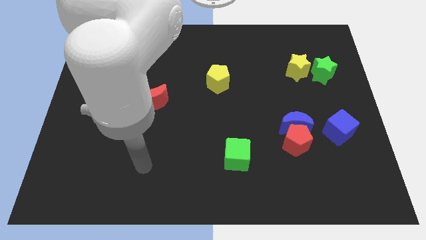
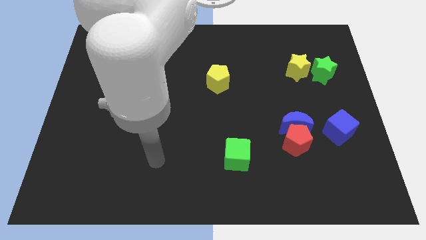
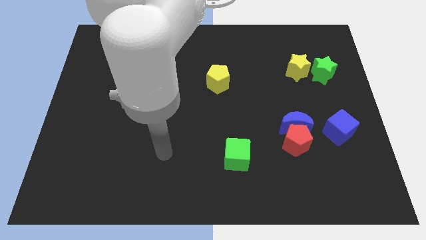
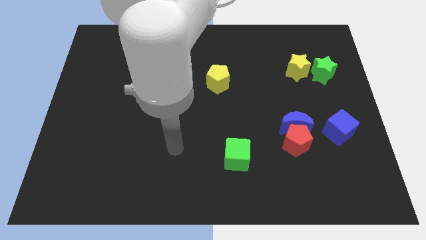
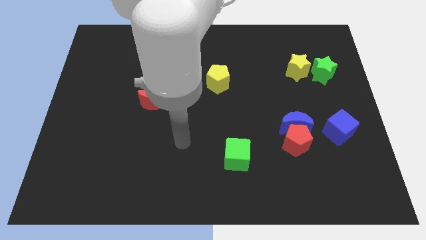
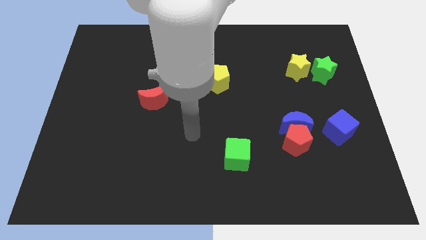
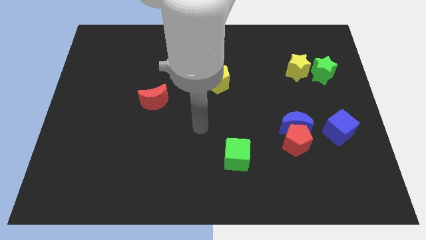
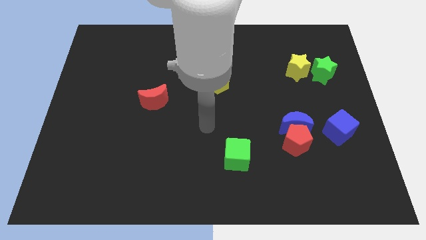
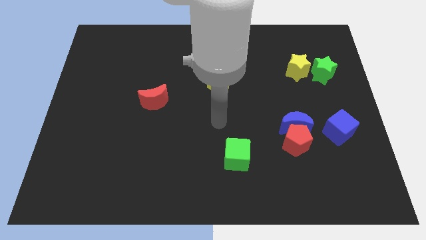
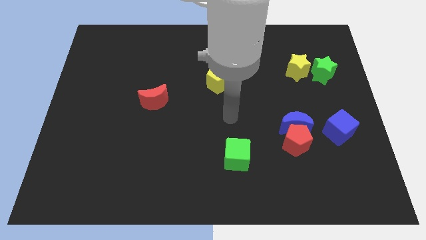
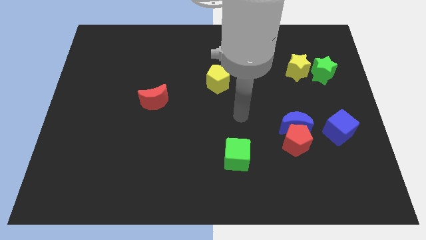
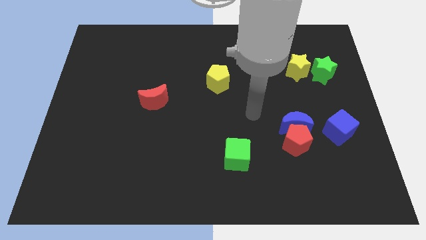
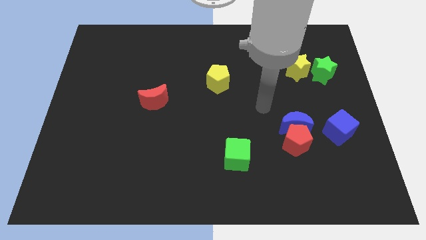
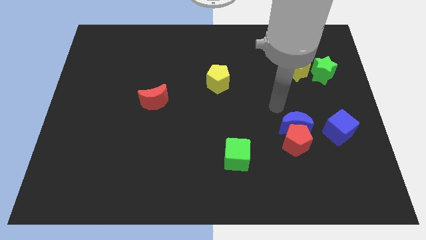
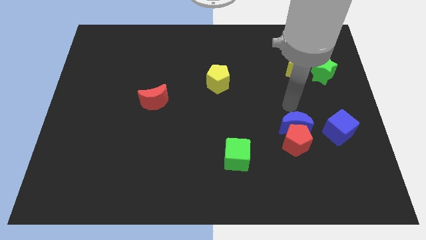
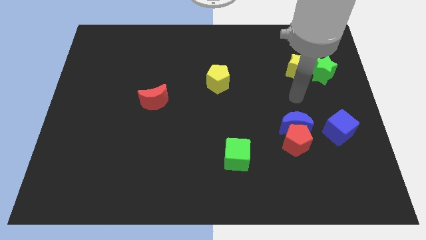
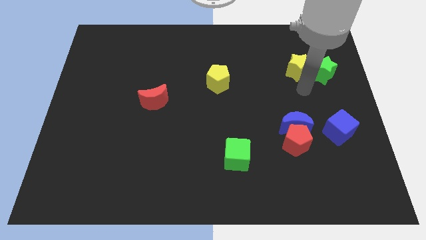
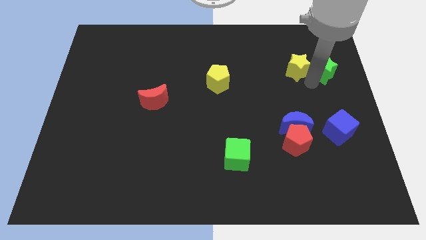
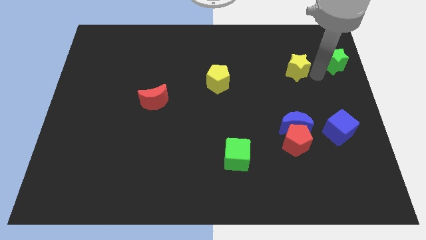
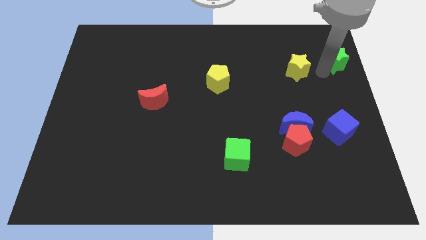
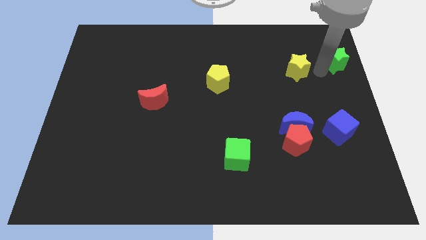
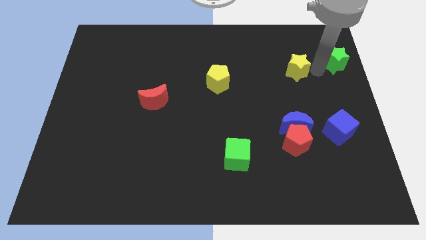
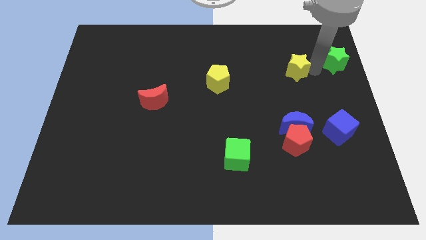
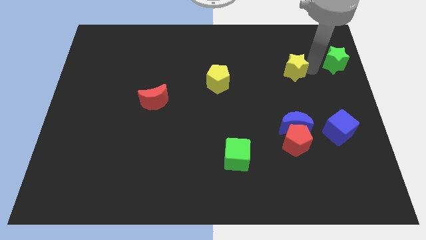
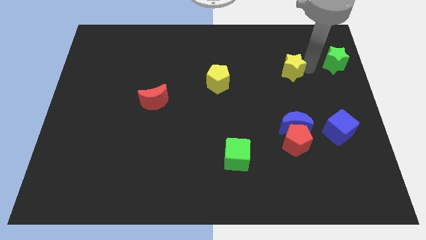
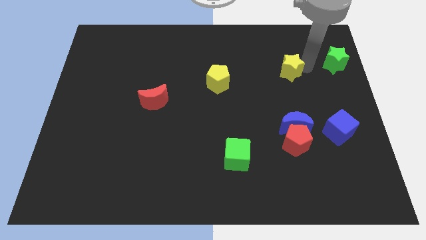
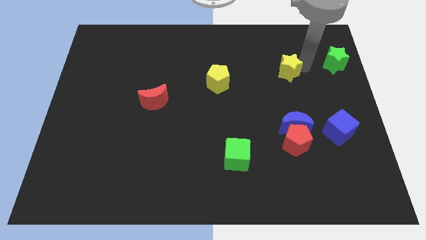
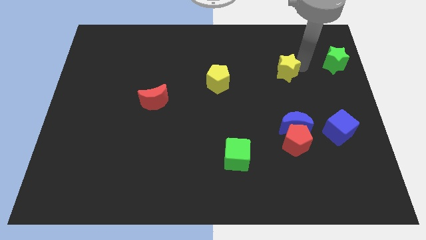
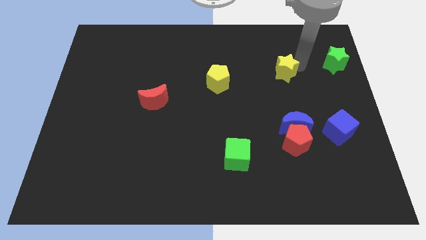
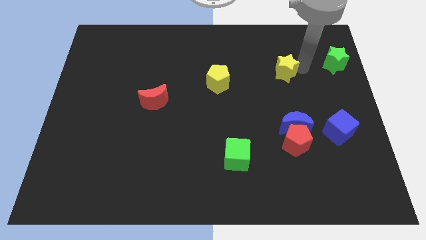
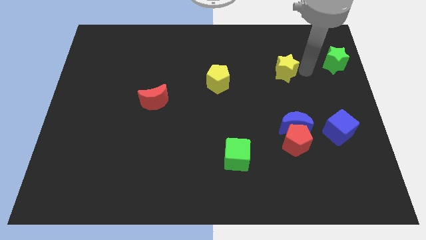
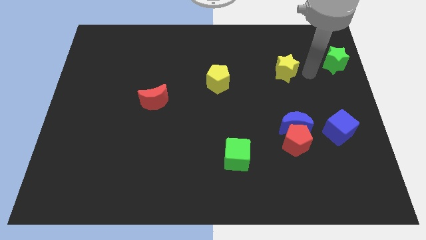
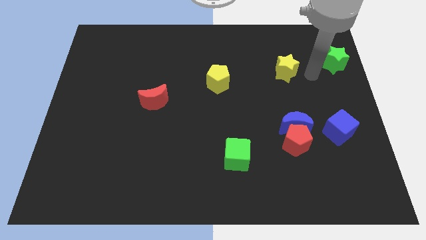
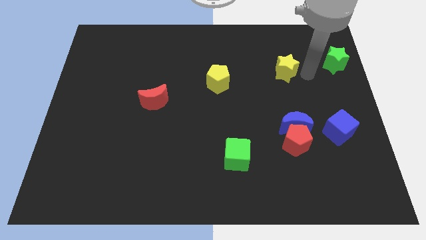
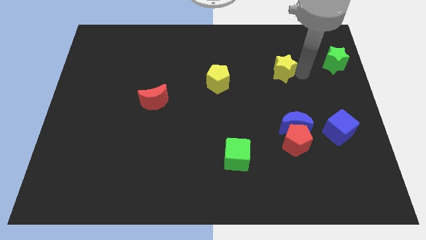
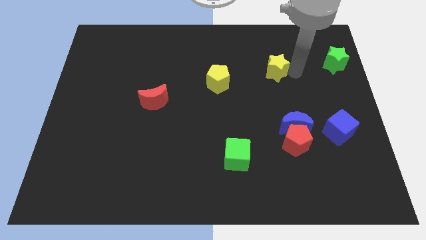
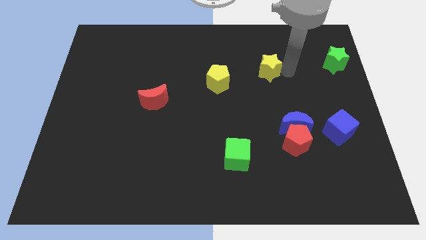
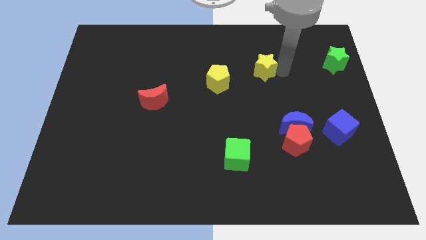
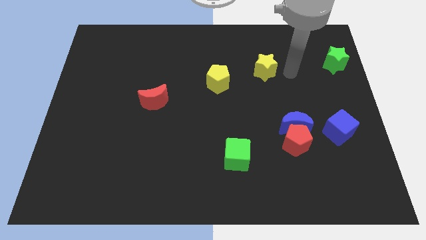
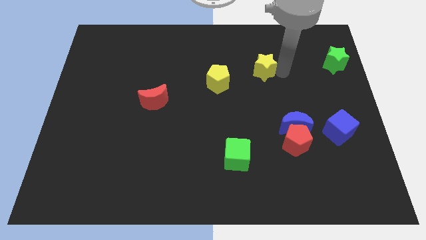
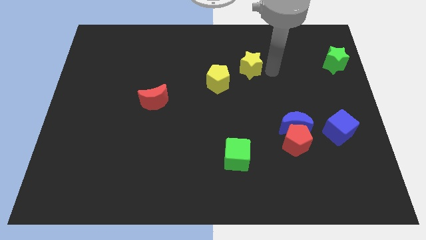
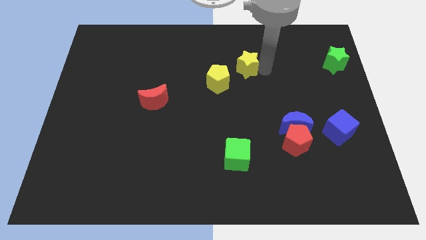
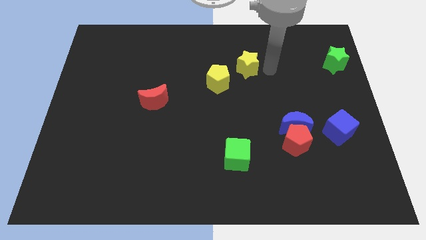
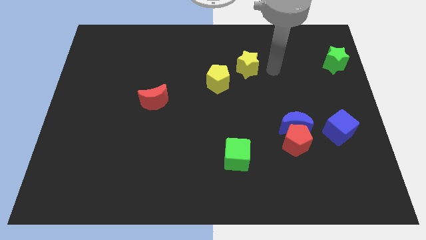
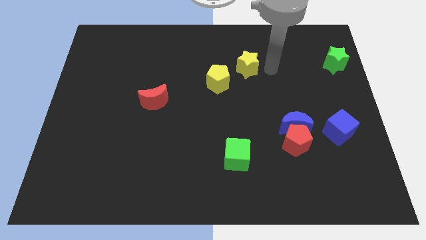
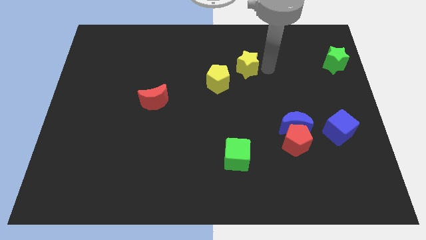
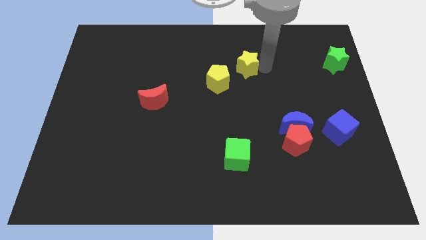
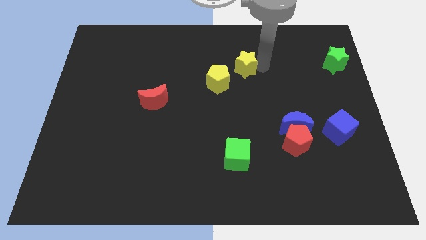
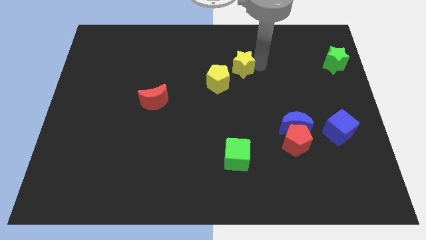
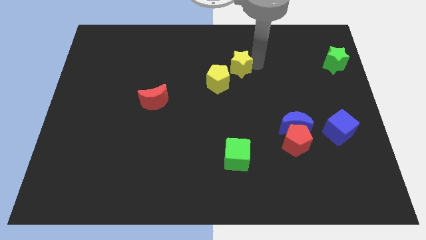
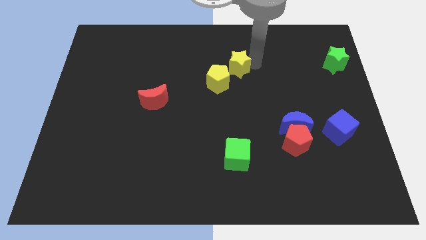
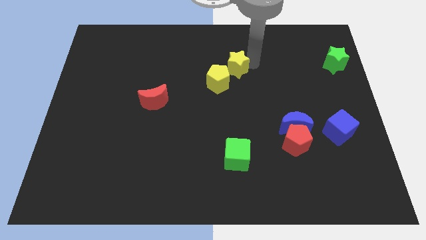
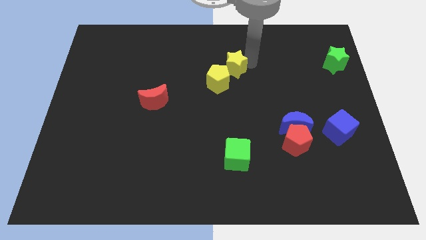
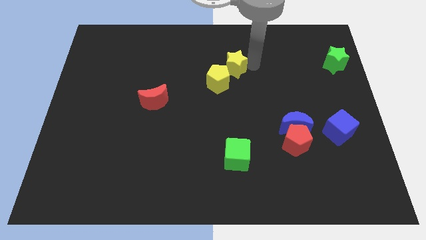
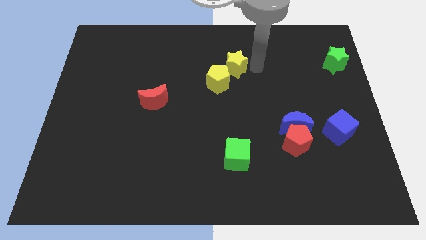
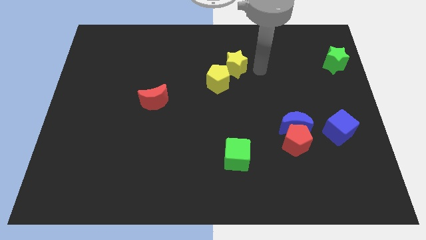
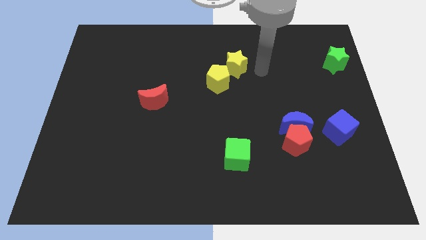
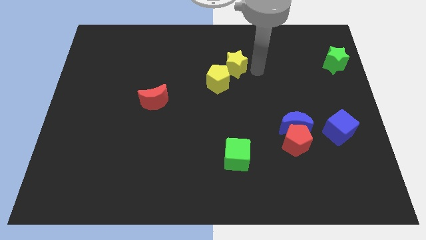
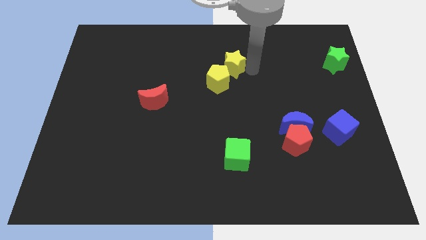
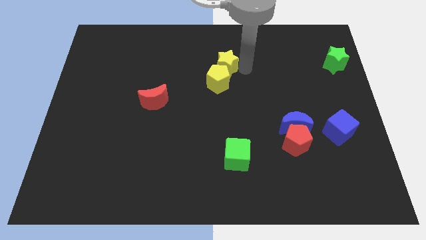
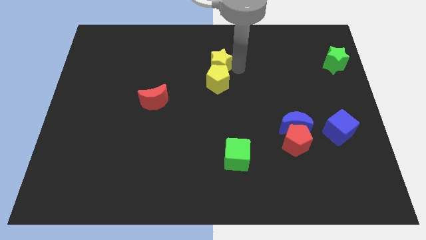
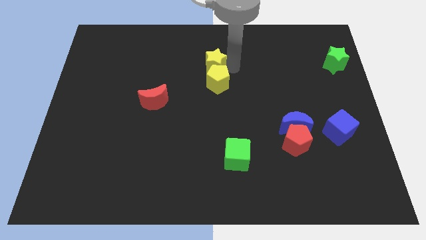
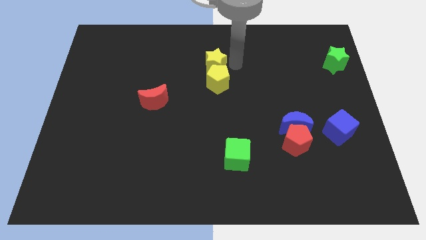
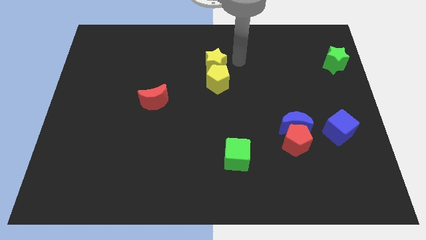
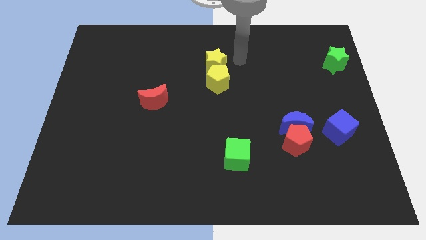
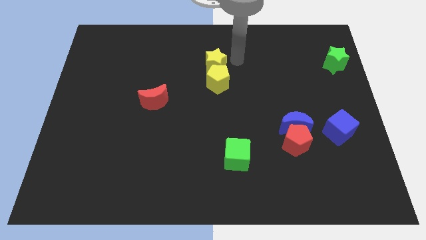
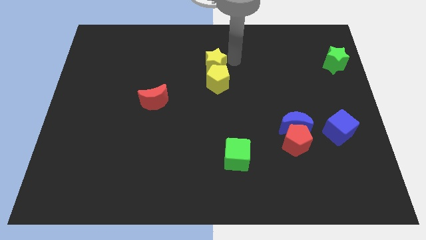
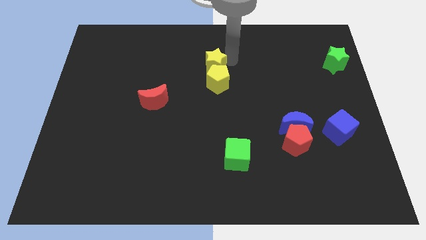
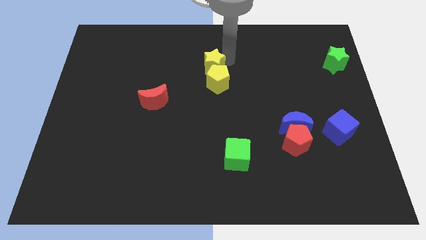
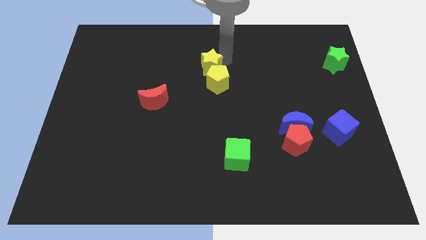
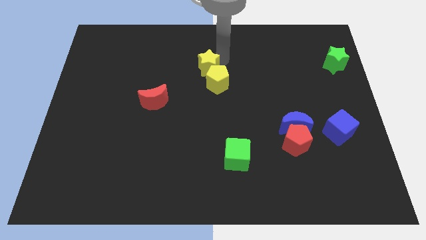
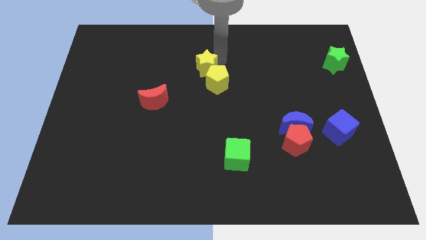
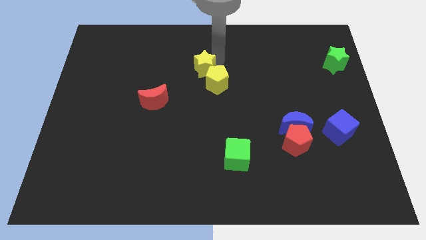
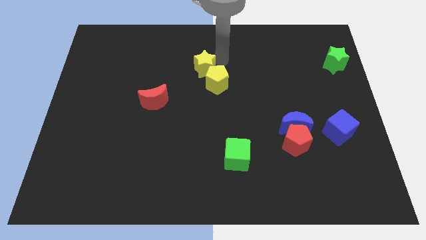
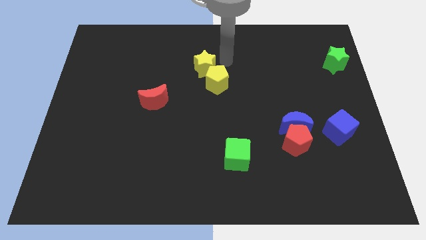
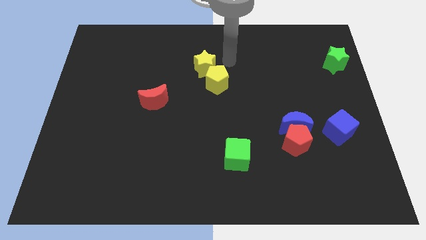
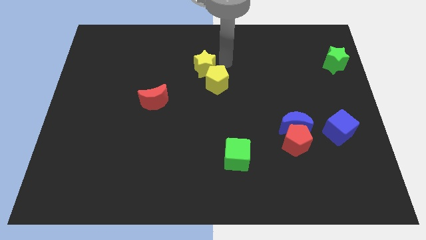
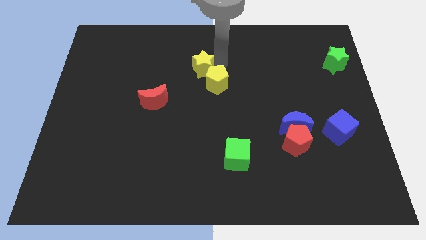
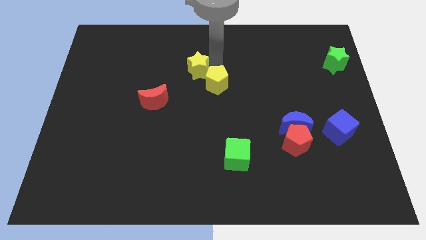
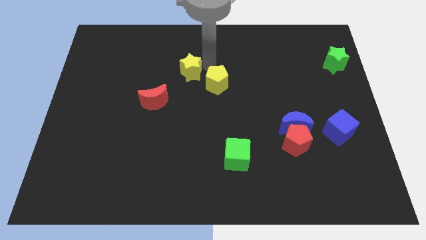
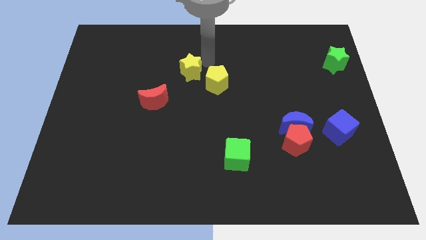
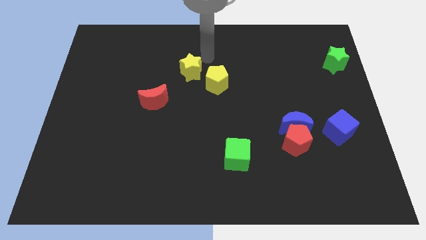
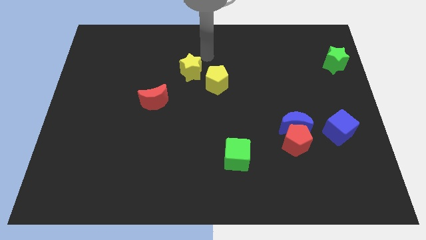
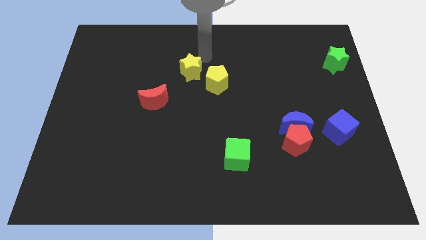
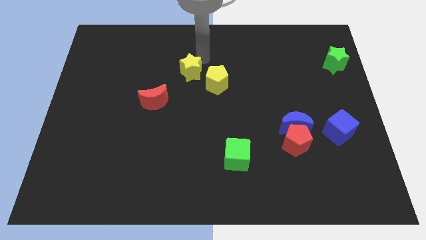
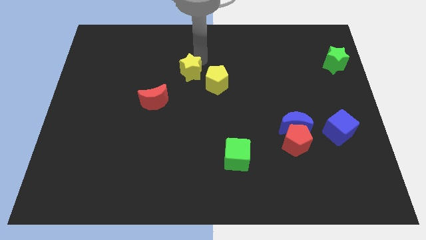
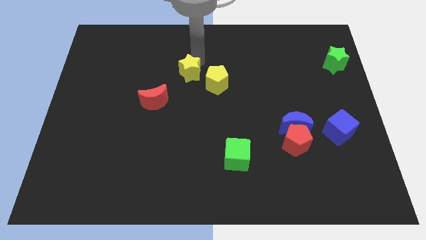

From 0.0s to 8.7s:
slide the yellow star to the top right side of the red moon
